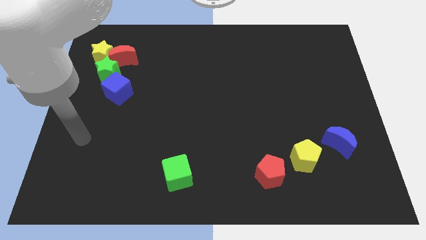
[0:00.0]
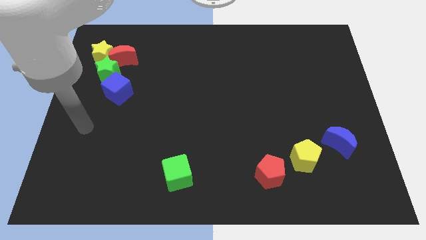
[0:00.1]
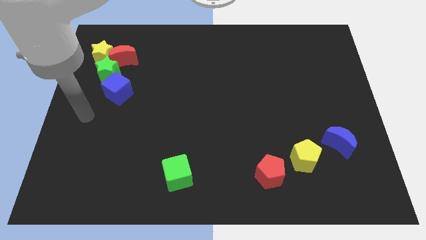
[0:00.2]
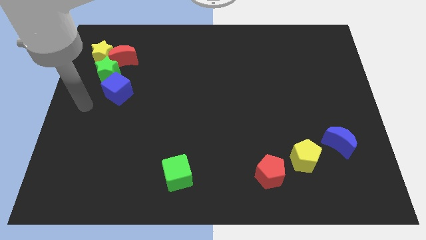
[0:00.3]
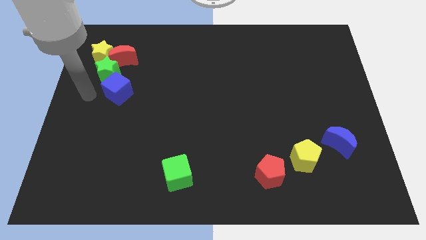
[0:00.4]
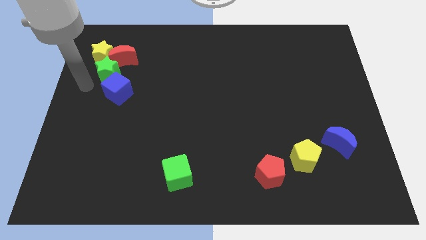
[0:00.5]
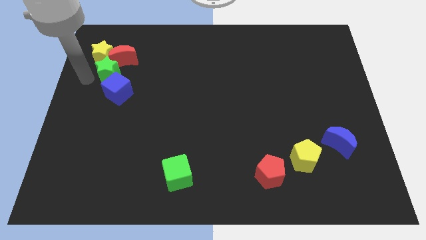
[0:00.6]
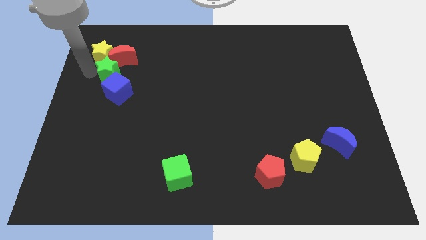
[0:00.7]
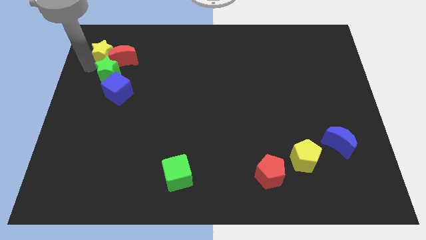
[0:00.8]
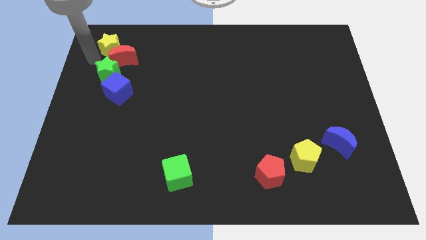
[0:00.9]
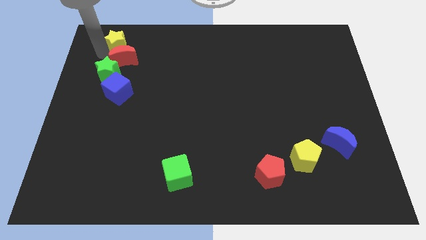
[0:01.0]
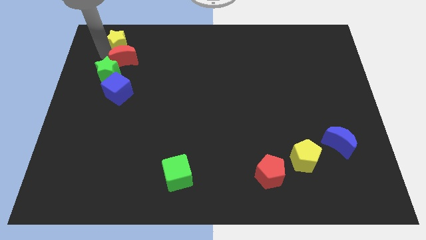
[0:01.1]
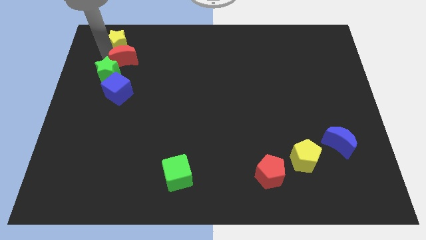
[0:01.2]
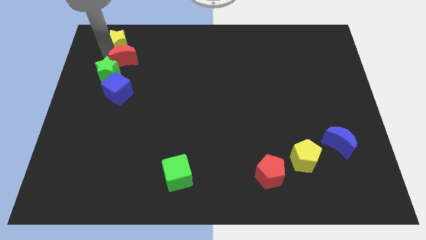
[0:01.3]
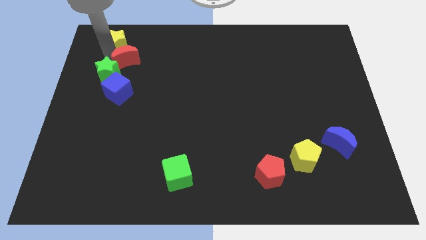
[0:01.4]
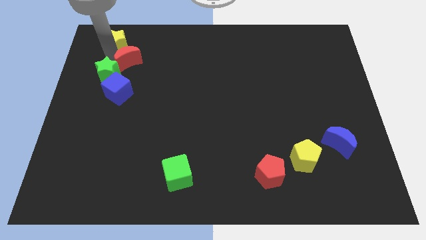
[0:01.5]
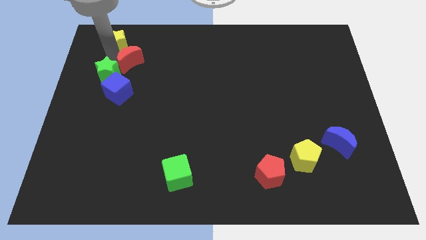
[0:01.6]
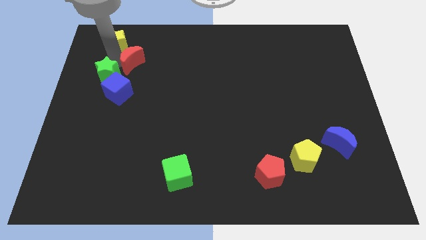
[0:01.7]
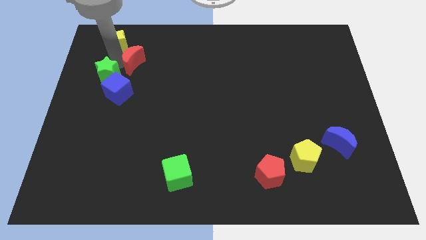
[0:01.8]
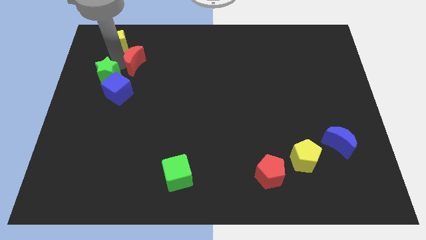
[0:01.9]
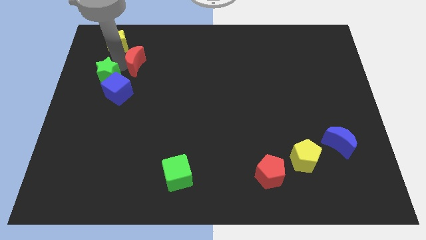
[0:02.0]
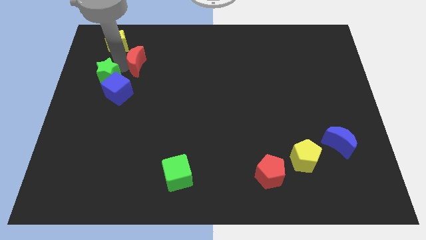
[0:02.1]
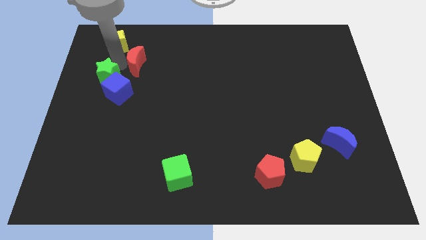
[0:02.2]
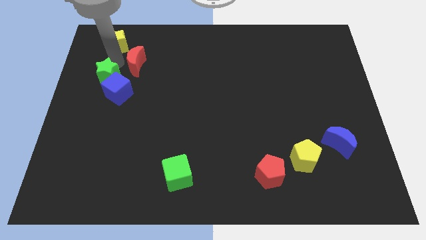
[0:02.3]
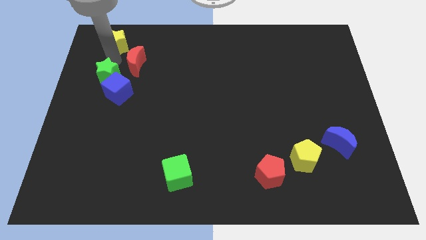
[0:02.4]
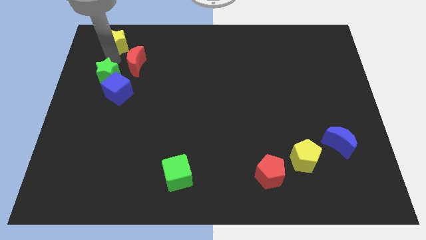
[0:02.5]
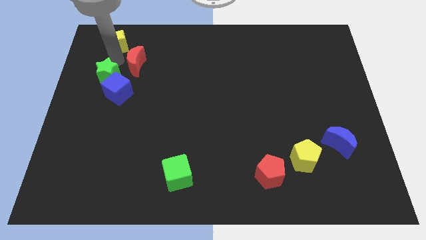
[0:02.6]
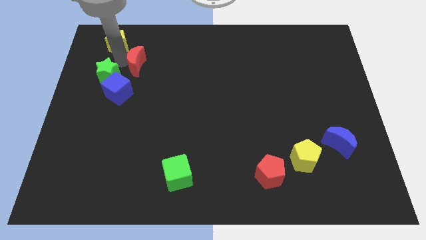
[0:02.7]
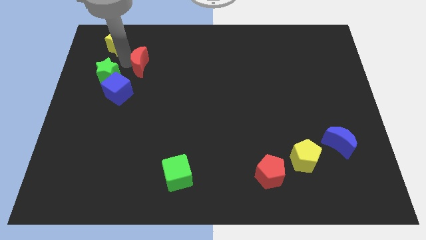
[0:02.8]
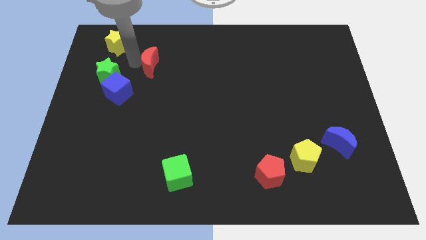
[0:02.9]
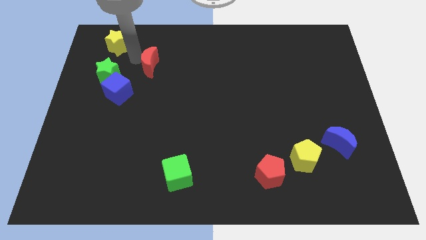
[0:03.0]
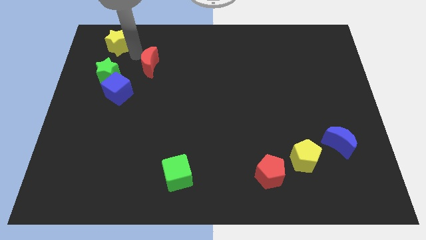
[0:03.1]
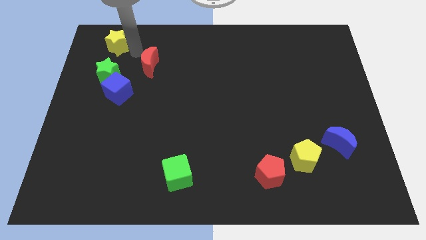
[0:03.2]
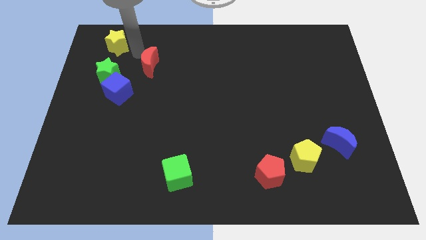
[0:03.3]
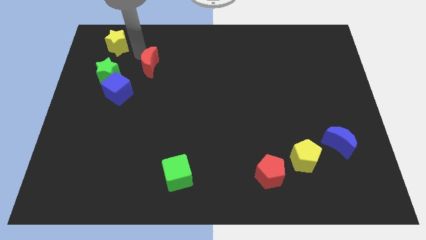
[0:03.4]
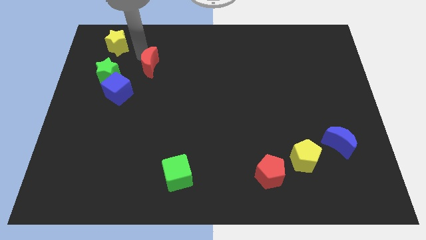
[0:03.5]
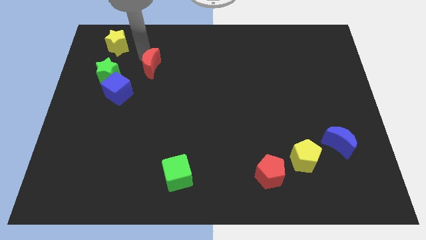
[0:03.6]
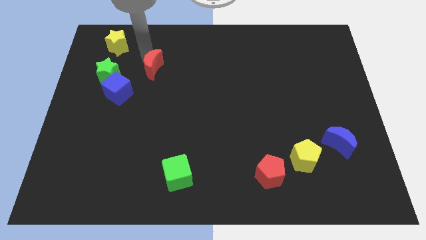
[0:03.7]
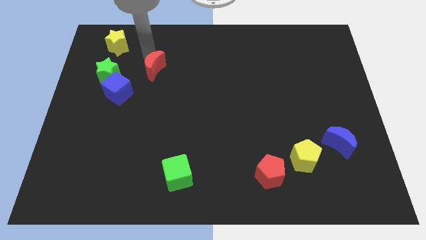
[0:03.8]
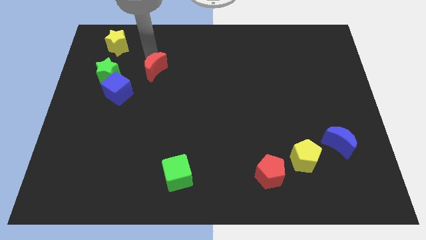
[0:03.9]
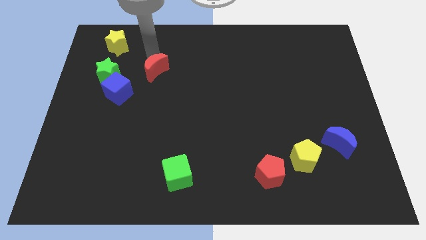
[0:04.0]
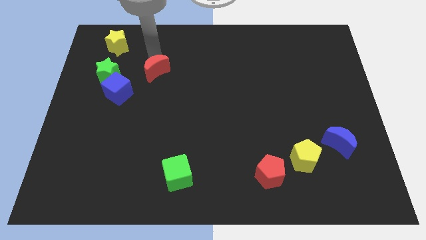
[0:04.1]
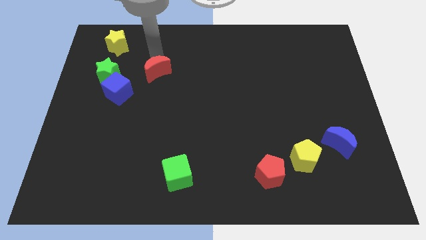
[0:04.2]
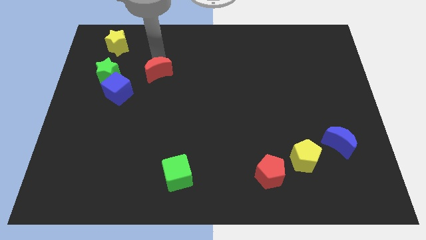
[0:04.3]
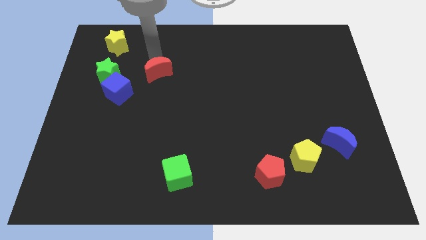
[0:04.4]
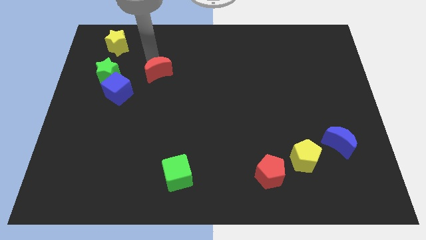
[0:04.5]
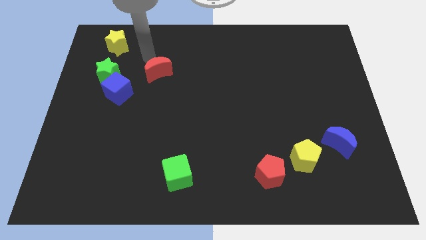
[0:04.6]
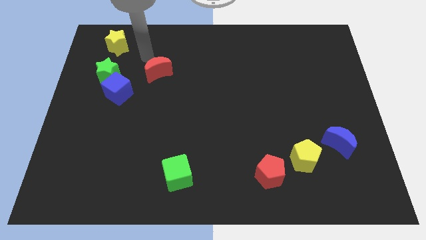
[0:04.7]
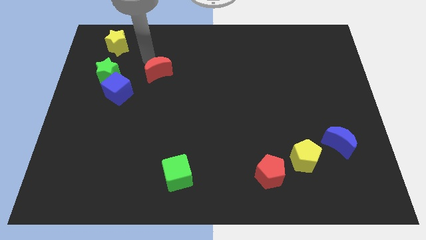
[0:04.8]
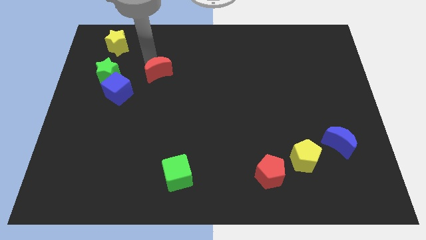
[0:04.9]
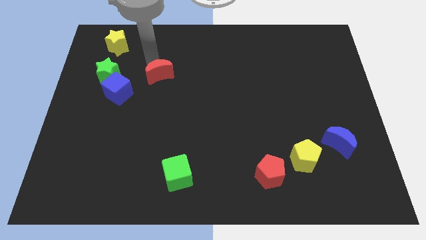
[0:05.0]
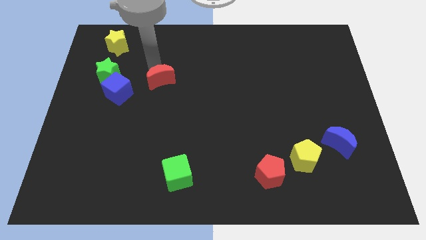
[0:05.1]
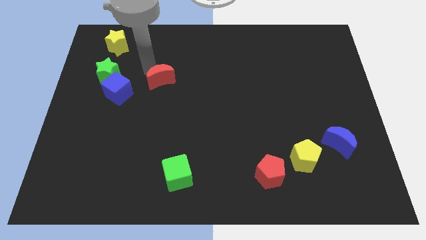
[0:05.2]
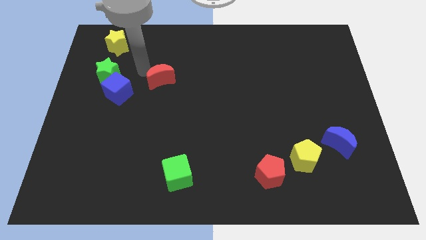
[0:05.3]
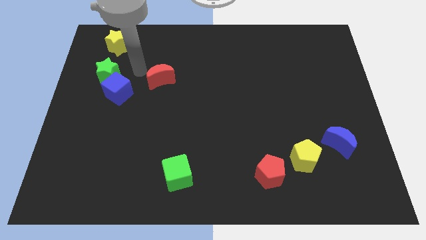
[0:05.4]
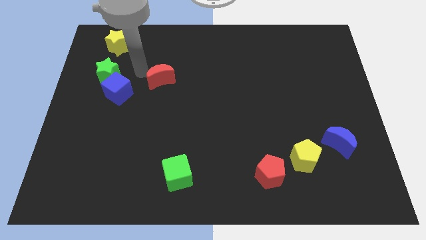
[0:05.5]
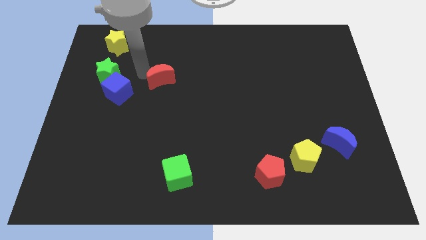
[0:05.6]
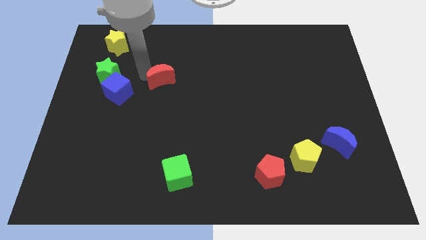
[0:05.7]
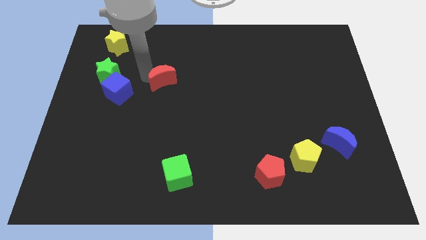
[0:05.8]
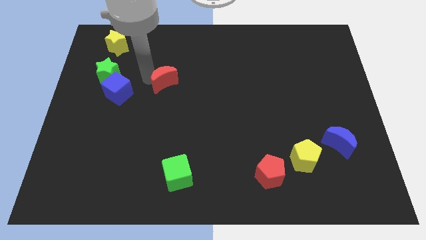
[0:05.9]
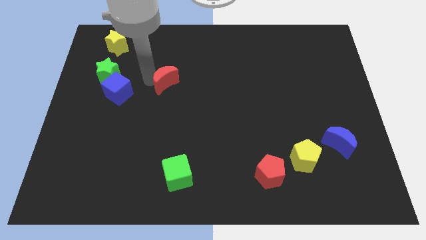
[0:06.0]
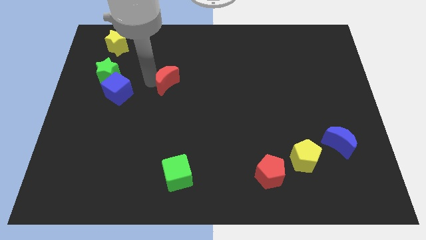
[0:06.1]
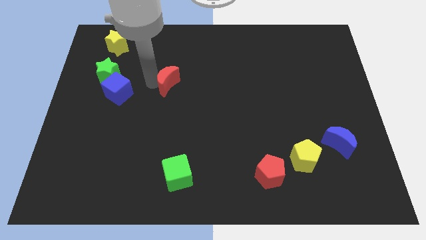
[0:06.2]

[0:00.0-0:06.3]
move the red moon to the middle
